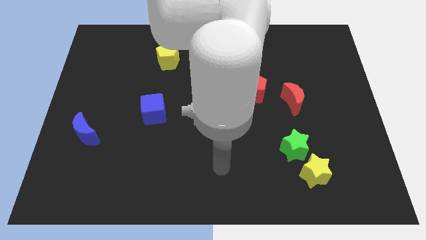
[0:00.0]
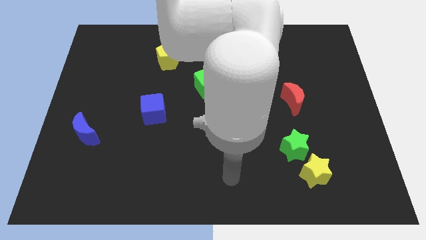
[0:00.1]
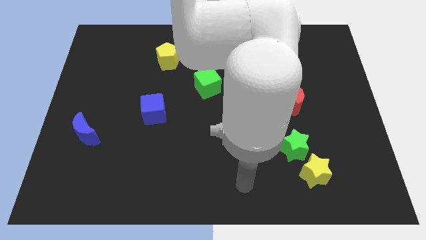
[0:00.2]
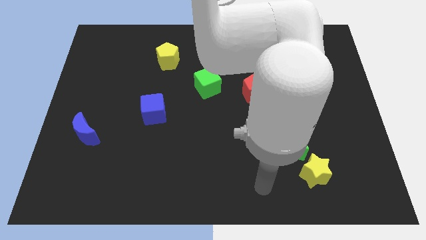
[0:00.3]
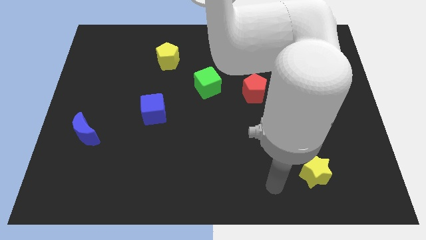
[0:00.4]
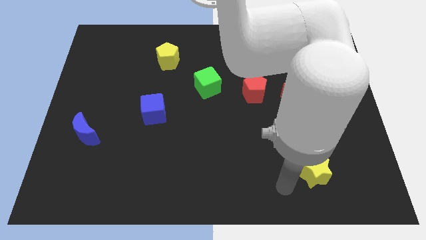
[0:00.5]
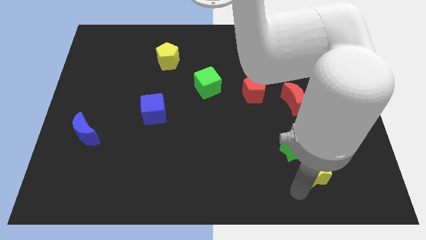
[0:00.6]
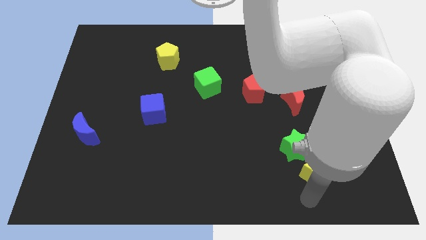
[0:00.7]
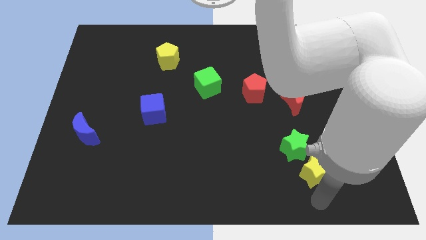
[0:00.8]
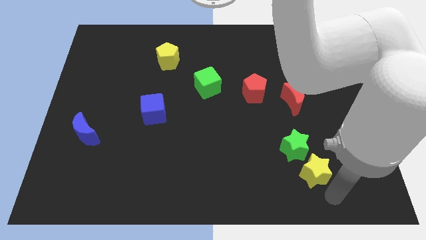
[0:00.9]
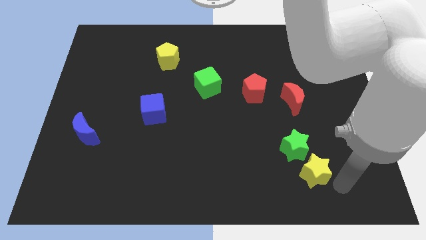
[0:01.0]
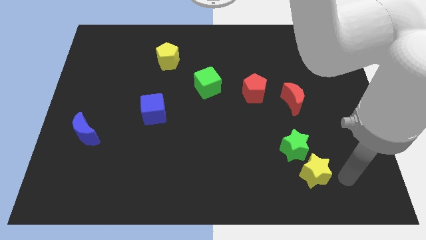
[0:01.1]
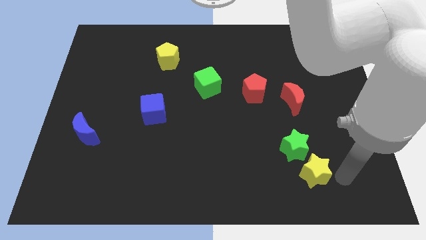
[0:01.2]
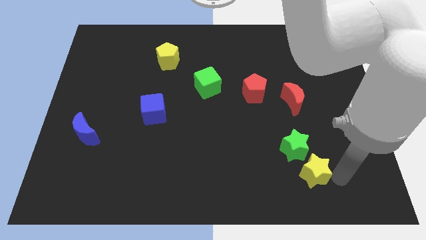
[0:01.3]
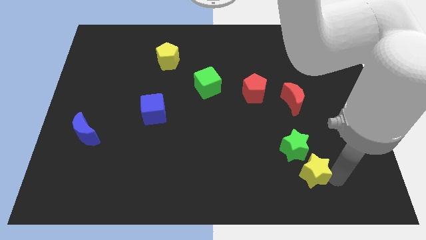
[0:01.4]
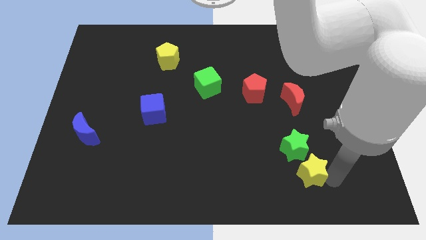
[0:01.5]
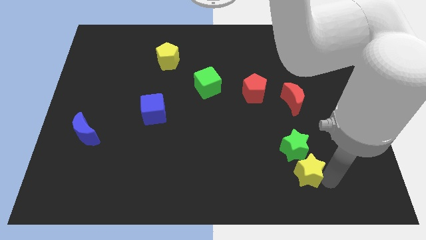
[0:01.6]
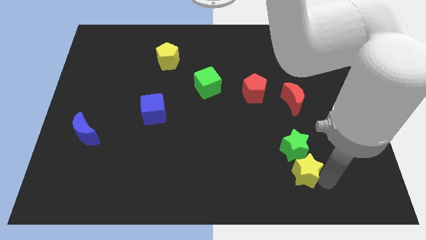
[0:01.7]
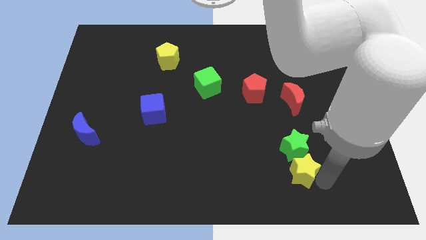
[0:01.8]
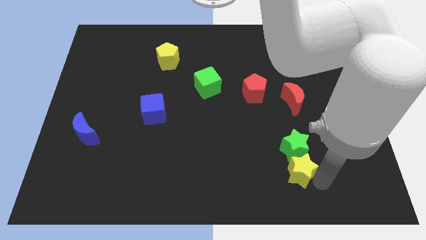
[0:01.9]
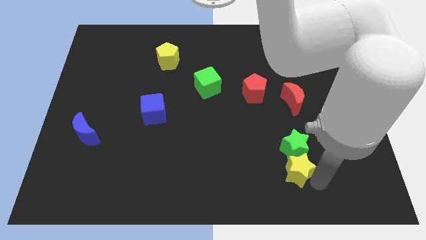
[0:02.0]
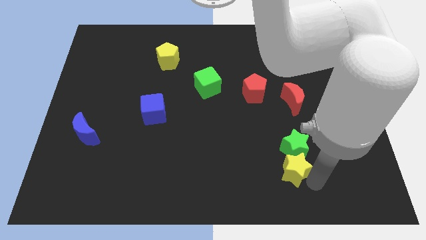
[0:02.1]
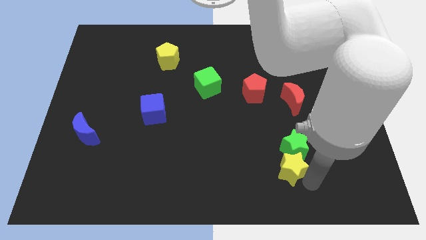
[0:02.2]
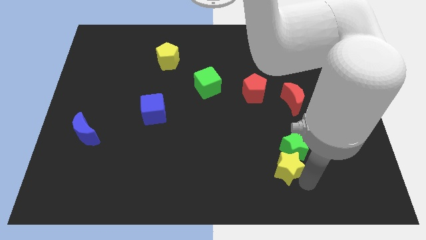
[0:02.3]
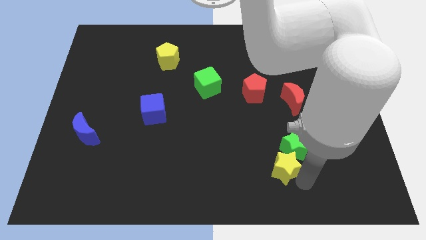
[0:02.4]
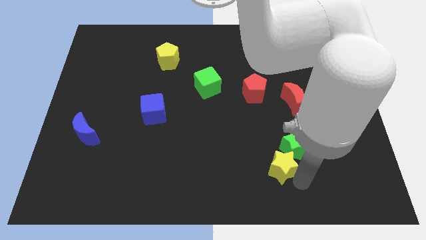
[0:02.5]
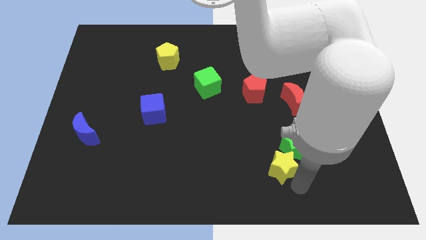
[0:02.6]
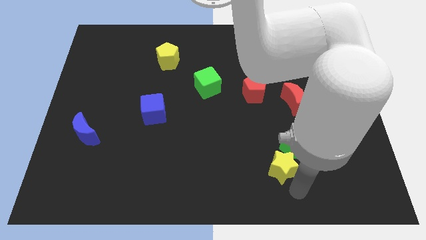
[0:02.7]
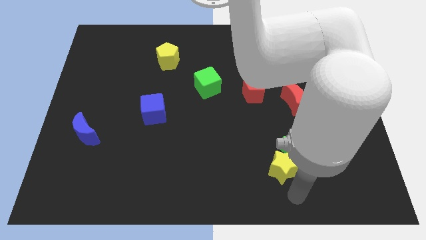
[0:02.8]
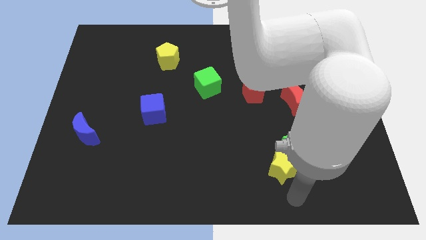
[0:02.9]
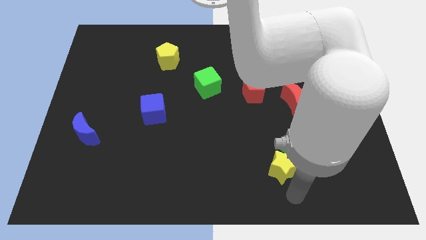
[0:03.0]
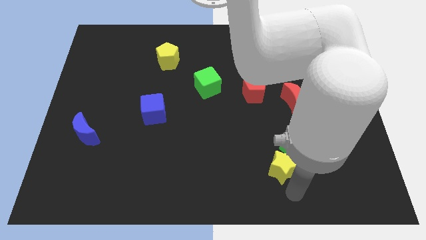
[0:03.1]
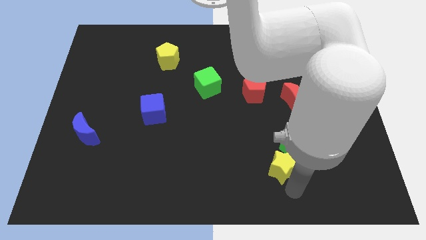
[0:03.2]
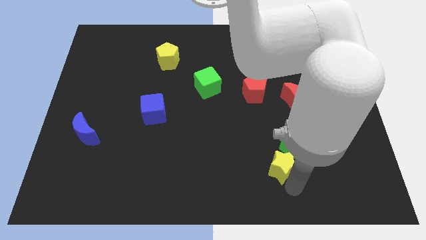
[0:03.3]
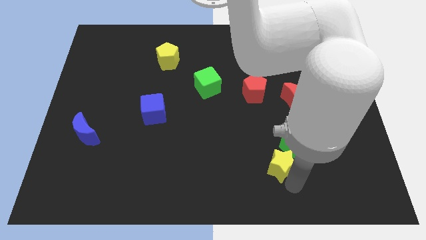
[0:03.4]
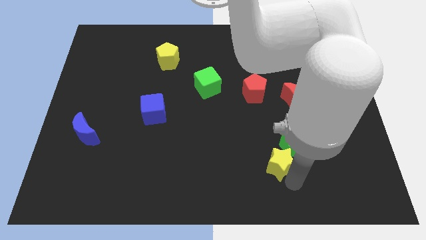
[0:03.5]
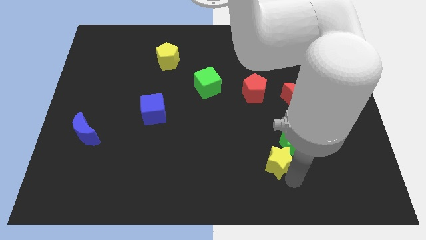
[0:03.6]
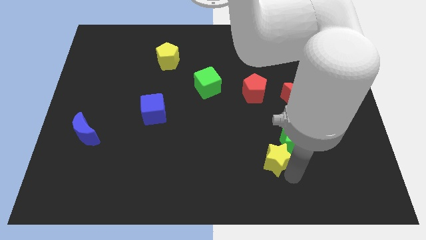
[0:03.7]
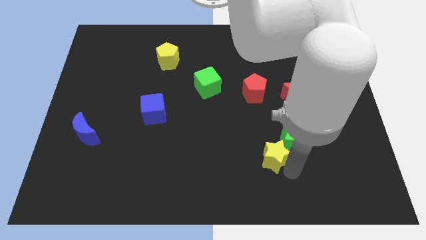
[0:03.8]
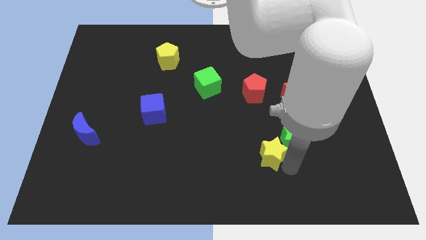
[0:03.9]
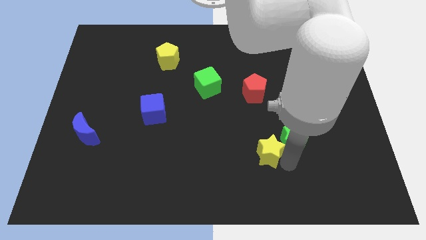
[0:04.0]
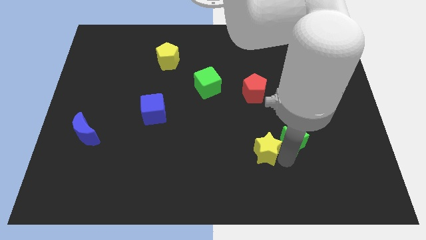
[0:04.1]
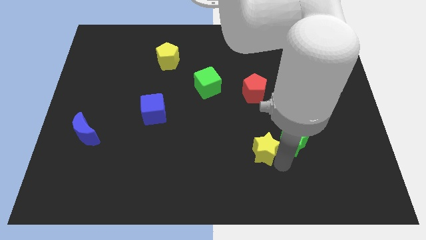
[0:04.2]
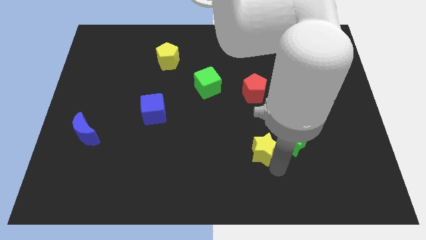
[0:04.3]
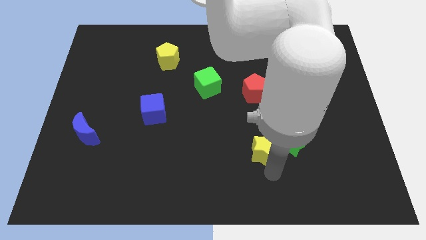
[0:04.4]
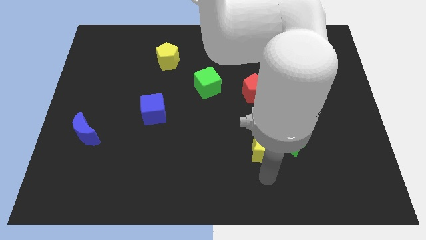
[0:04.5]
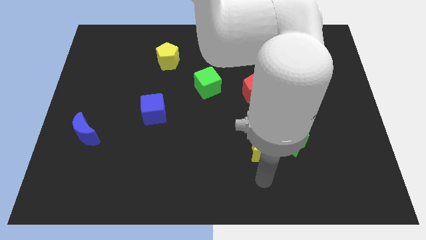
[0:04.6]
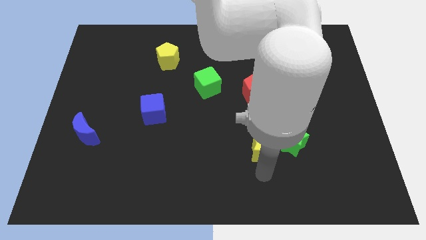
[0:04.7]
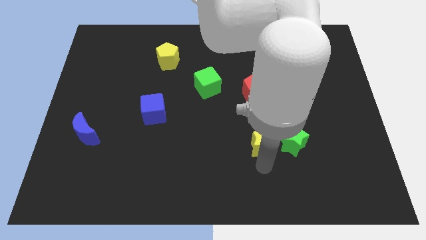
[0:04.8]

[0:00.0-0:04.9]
push the yellow star diagonally up and to the left of the green star

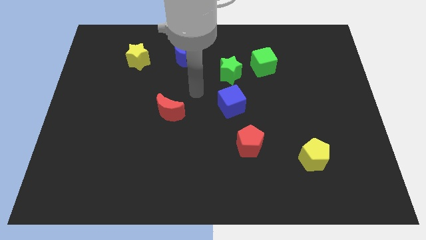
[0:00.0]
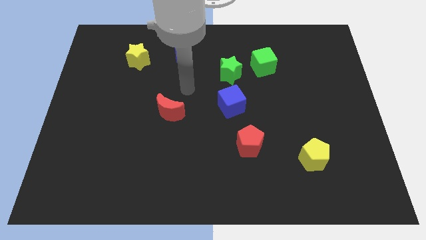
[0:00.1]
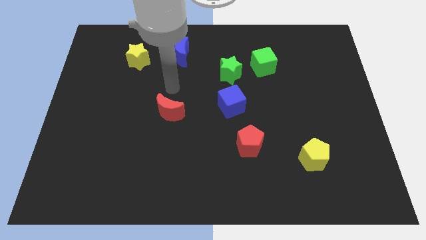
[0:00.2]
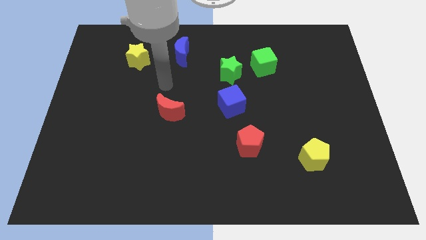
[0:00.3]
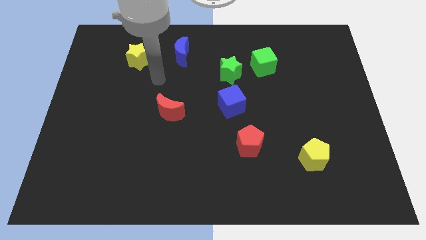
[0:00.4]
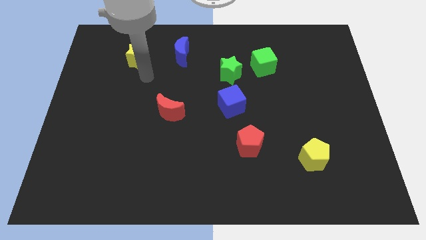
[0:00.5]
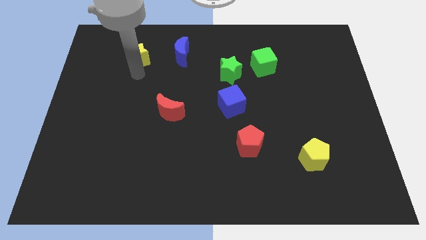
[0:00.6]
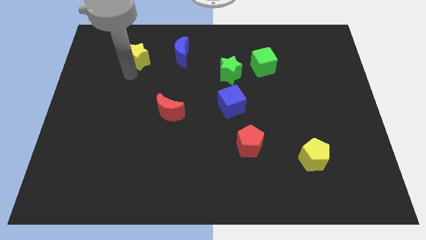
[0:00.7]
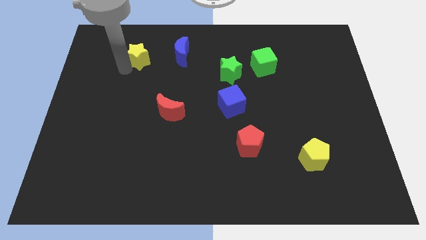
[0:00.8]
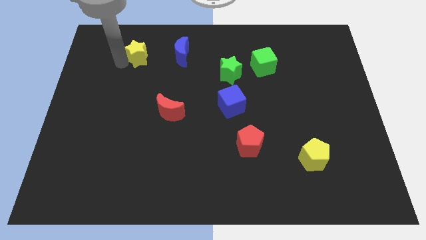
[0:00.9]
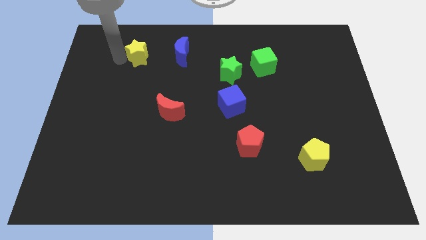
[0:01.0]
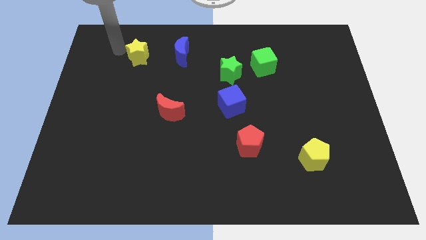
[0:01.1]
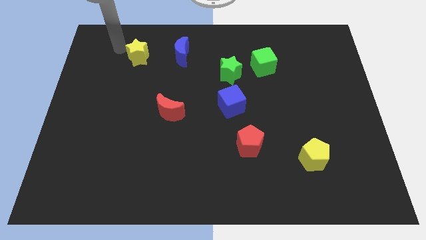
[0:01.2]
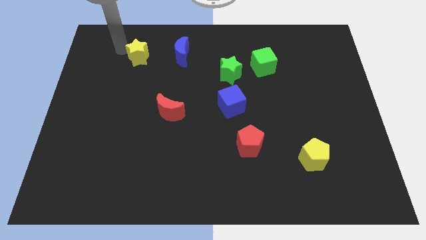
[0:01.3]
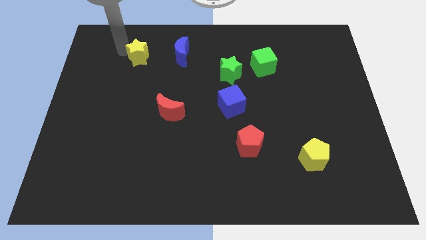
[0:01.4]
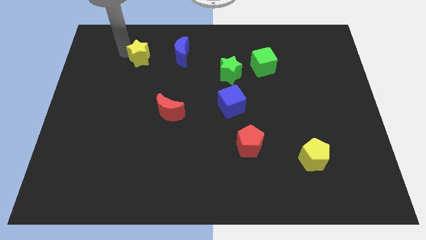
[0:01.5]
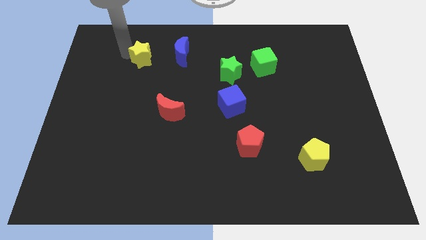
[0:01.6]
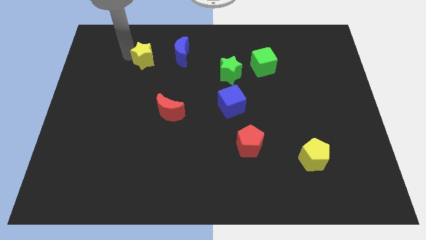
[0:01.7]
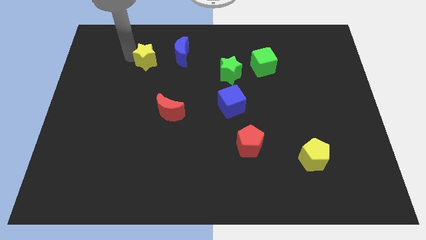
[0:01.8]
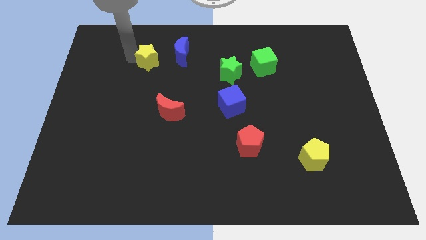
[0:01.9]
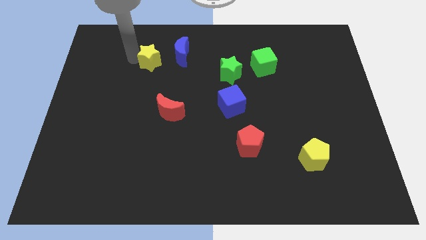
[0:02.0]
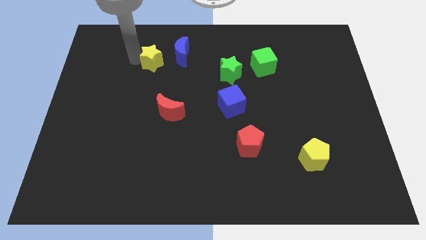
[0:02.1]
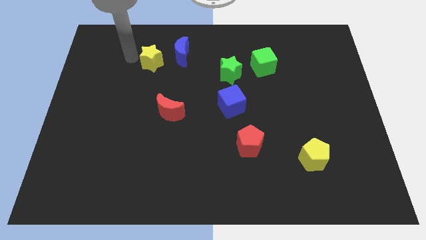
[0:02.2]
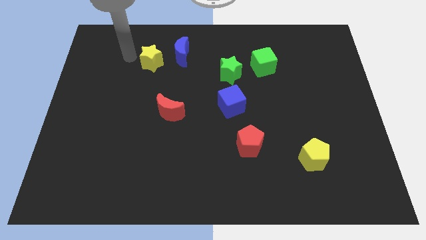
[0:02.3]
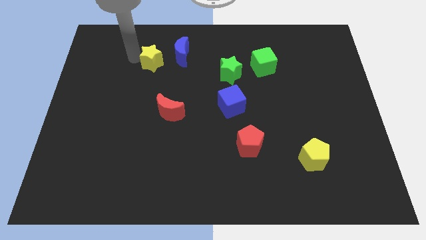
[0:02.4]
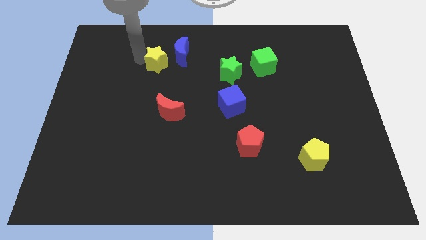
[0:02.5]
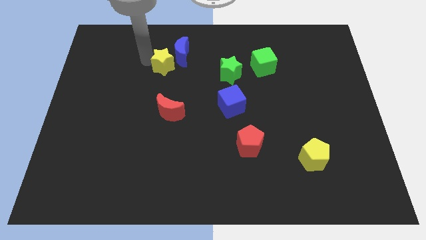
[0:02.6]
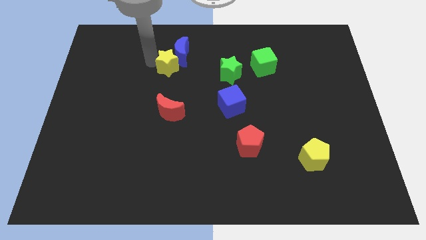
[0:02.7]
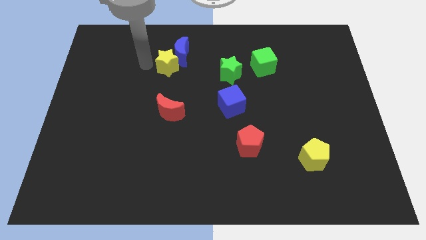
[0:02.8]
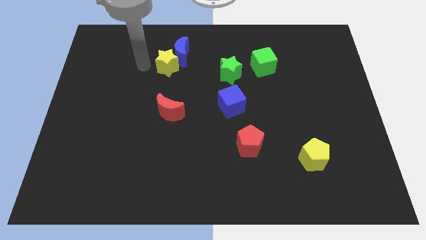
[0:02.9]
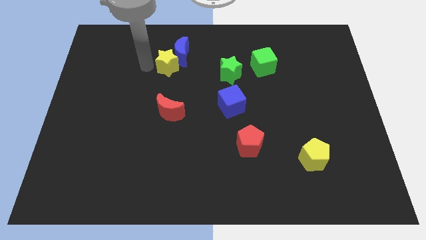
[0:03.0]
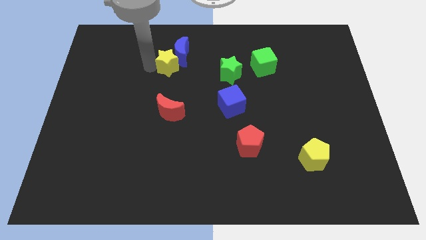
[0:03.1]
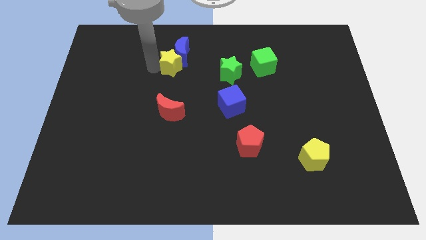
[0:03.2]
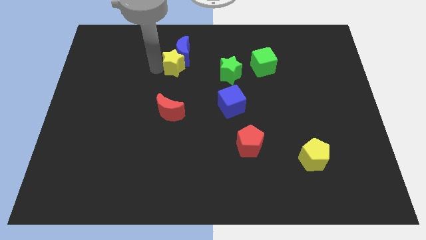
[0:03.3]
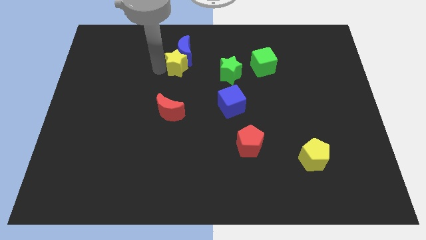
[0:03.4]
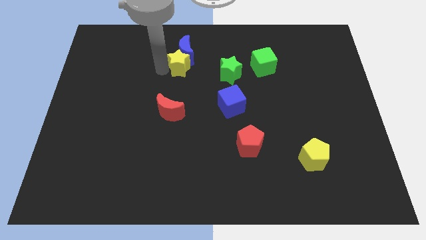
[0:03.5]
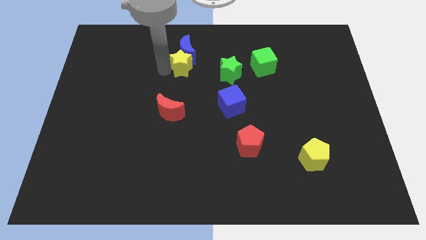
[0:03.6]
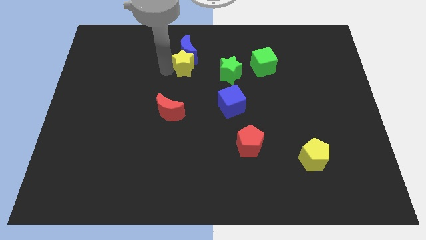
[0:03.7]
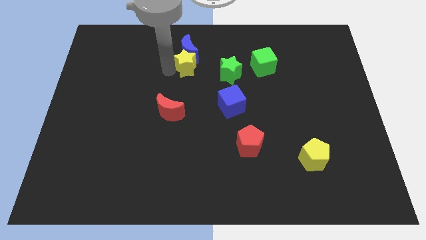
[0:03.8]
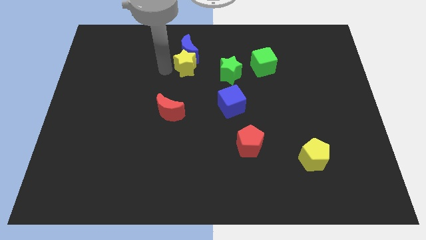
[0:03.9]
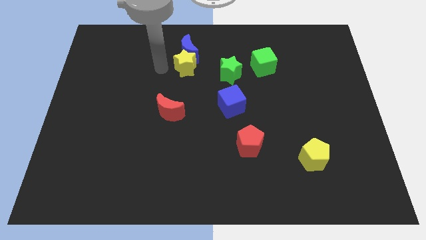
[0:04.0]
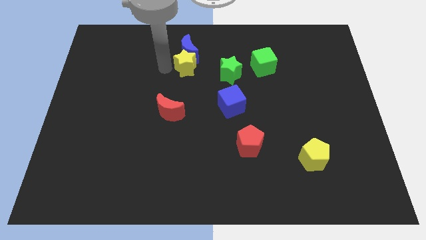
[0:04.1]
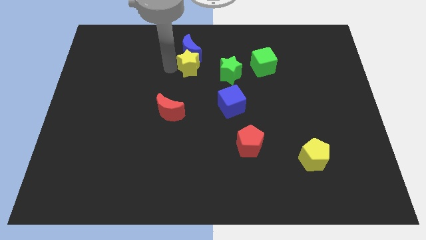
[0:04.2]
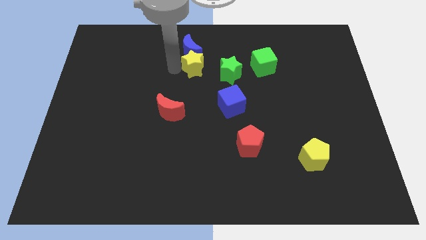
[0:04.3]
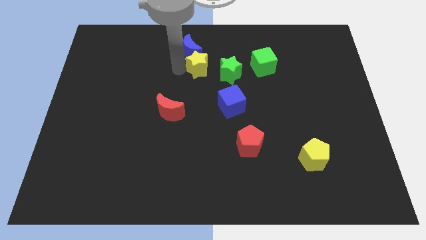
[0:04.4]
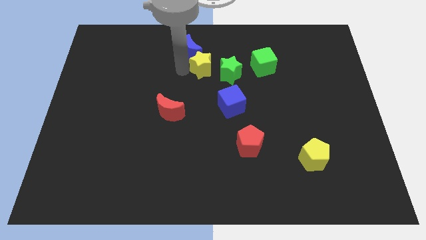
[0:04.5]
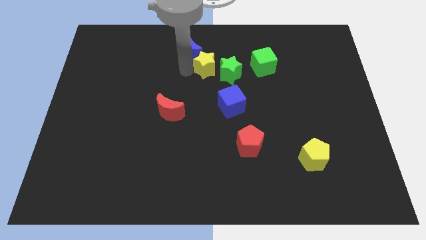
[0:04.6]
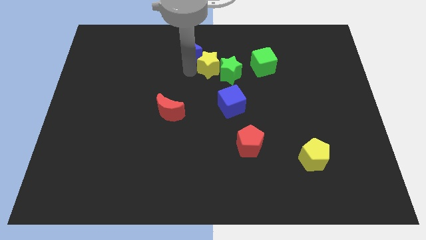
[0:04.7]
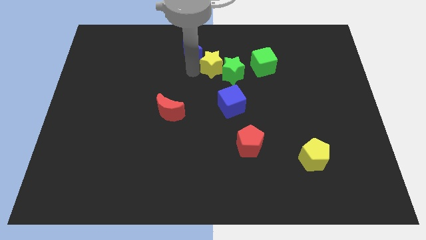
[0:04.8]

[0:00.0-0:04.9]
move the yellow star just right of the blue moon
